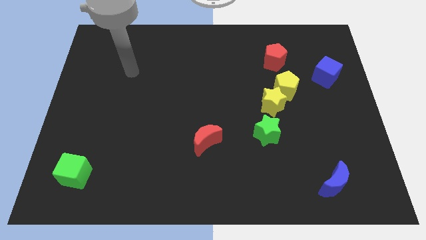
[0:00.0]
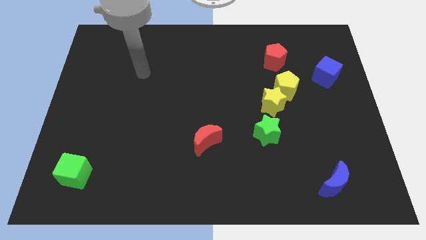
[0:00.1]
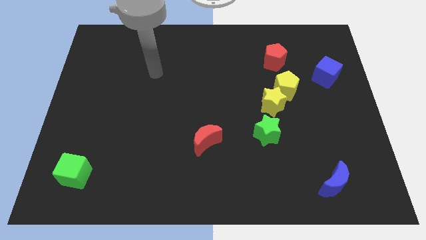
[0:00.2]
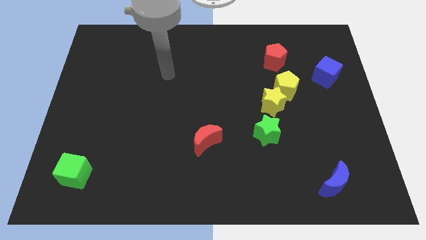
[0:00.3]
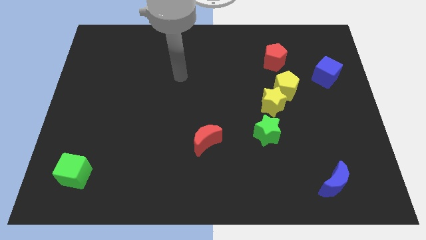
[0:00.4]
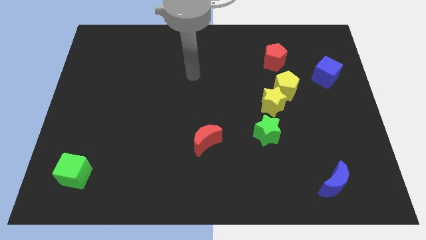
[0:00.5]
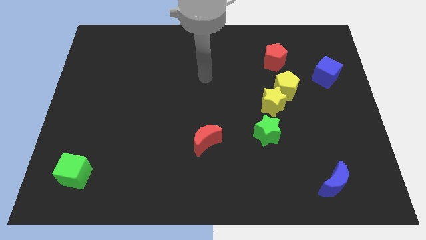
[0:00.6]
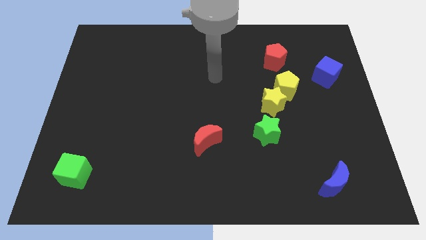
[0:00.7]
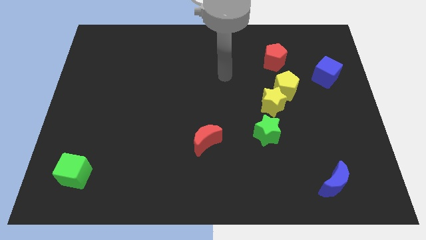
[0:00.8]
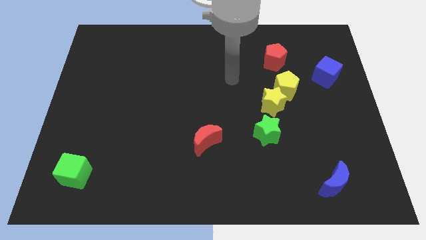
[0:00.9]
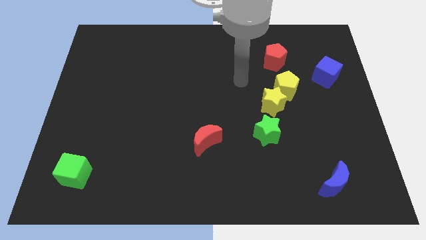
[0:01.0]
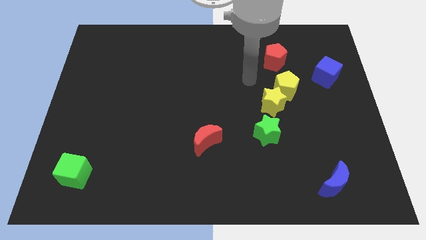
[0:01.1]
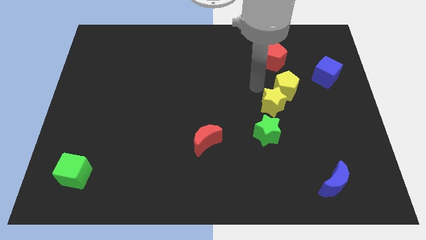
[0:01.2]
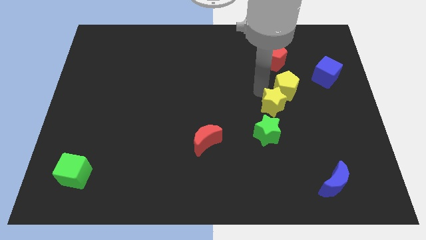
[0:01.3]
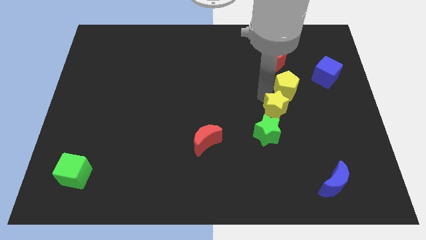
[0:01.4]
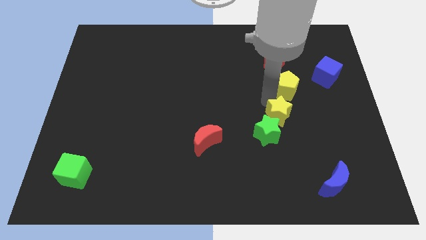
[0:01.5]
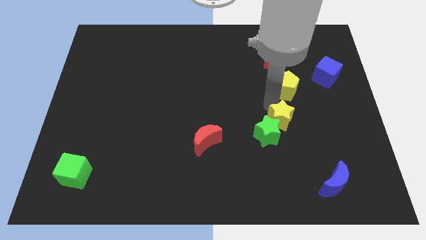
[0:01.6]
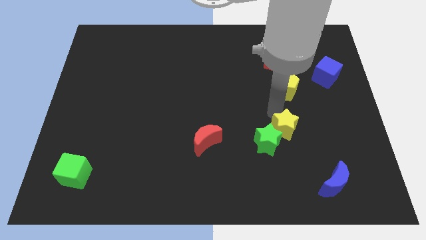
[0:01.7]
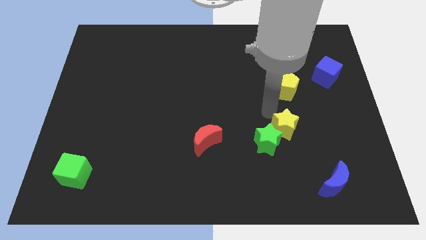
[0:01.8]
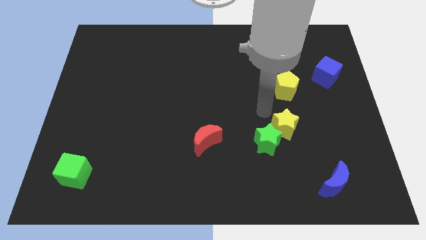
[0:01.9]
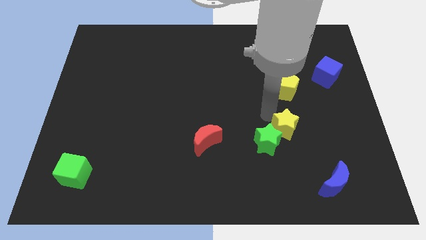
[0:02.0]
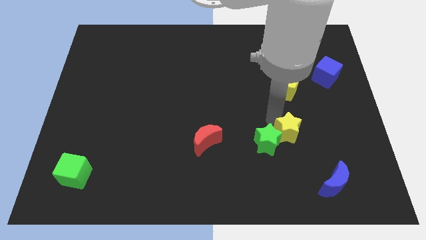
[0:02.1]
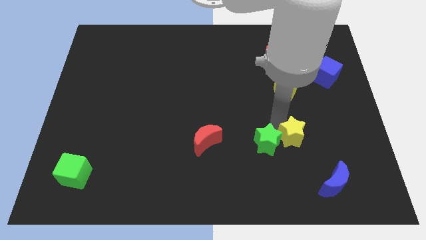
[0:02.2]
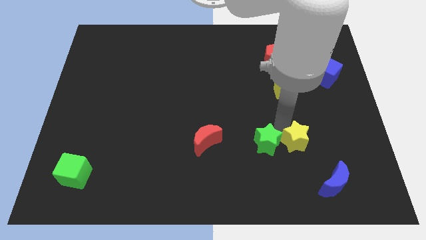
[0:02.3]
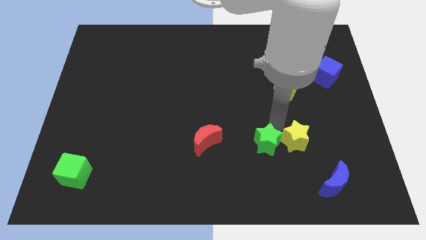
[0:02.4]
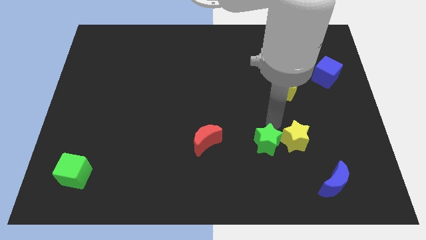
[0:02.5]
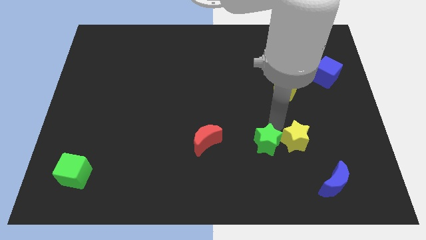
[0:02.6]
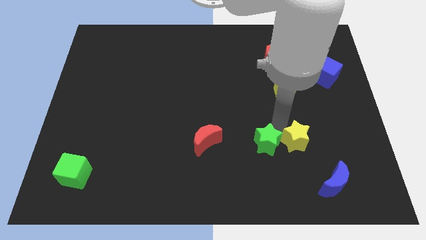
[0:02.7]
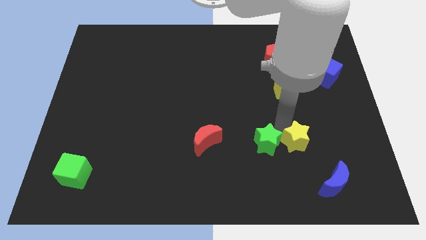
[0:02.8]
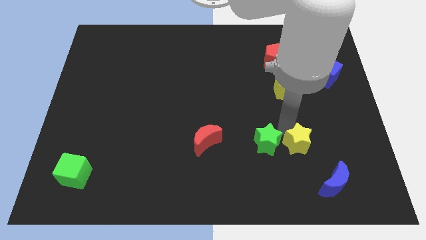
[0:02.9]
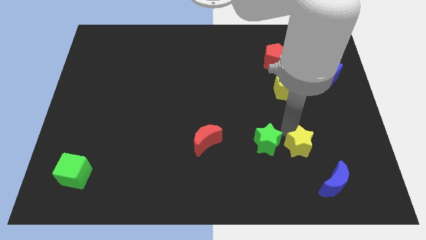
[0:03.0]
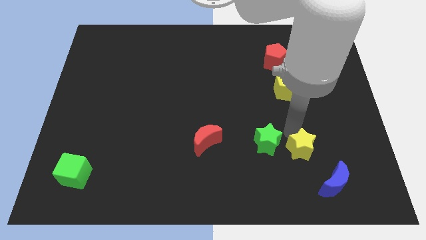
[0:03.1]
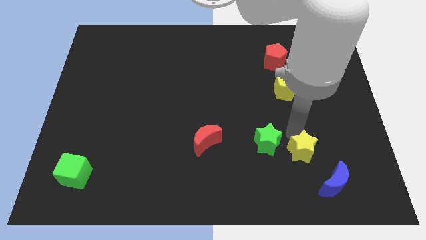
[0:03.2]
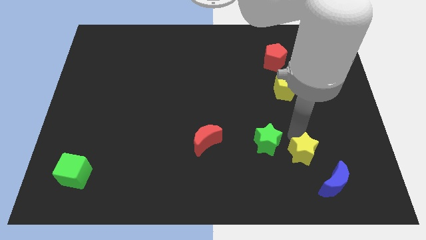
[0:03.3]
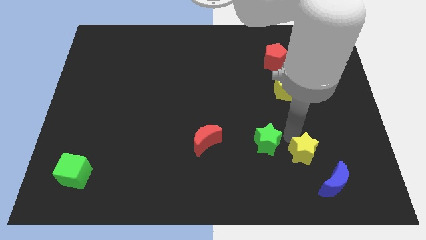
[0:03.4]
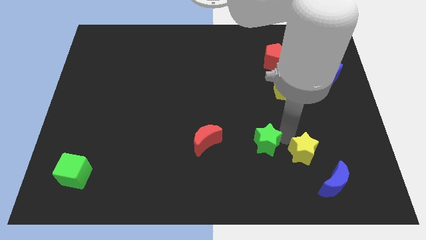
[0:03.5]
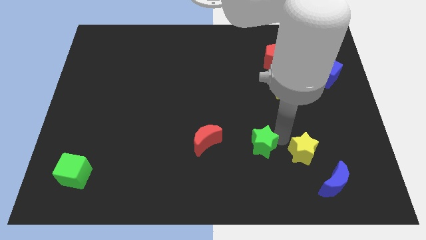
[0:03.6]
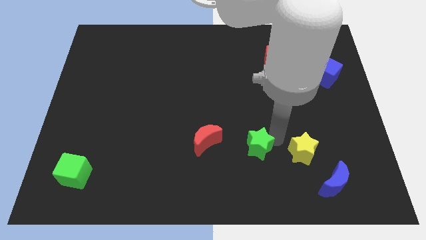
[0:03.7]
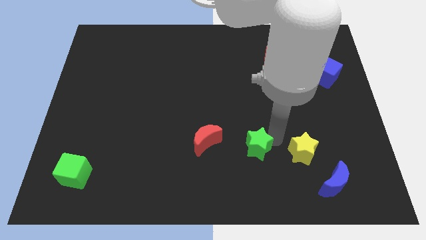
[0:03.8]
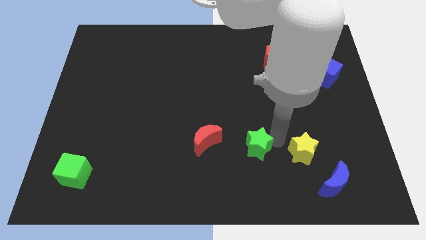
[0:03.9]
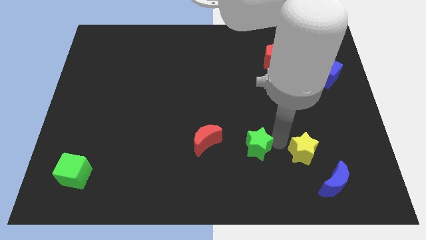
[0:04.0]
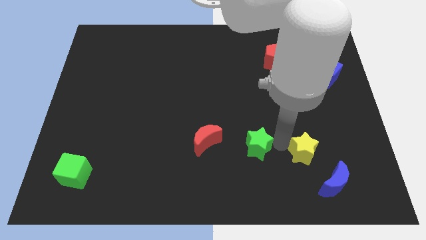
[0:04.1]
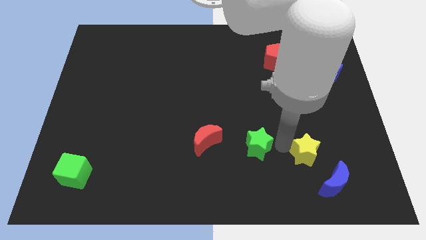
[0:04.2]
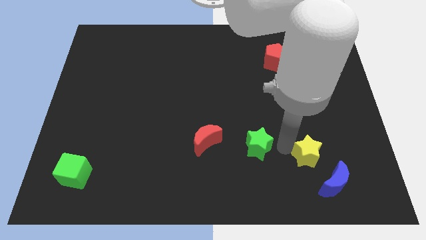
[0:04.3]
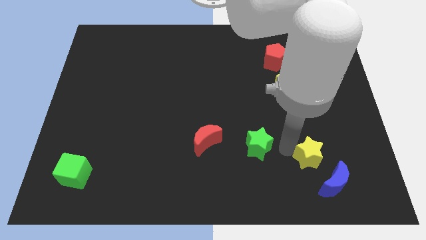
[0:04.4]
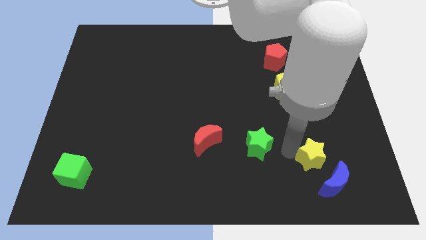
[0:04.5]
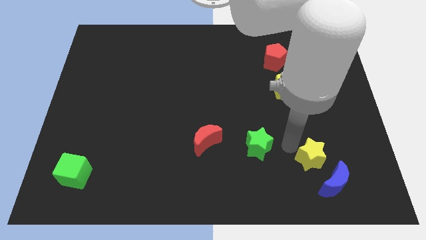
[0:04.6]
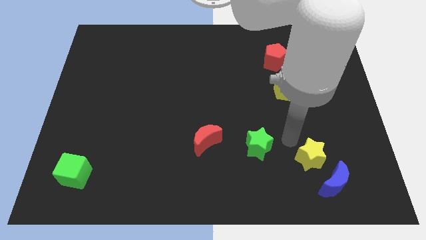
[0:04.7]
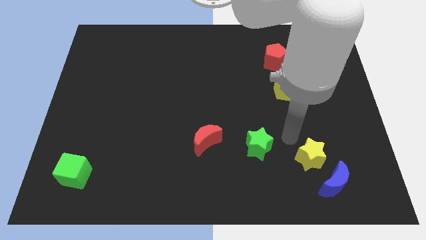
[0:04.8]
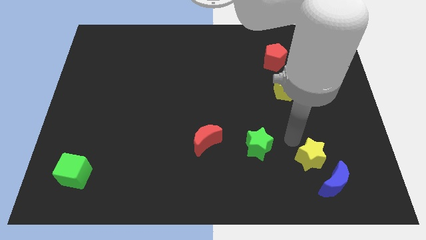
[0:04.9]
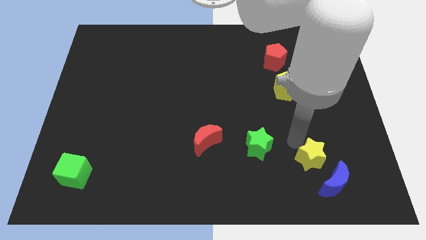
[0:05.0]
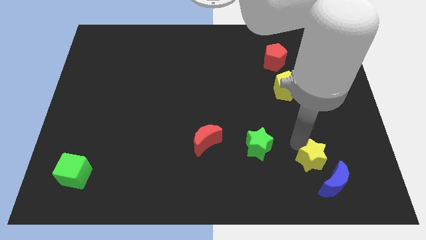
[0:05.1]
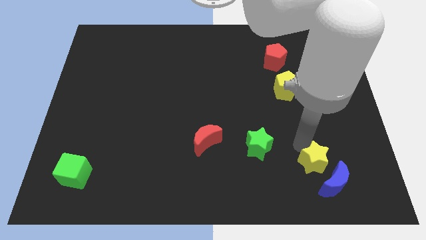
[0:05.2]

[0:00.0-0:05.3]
slide the yellow star close to the blue moon

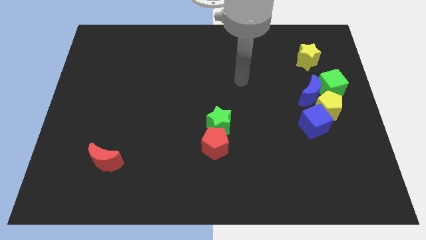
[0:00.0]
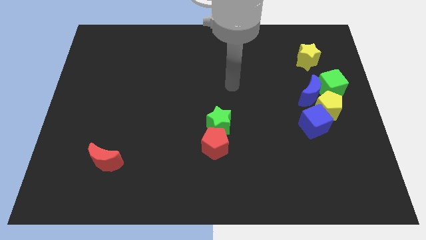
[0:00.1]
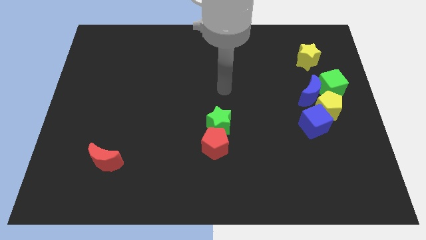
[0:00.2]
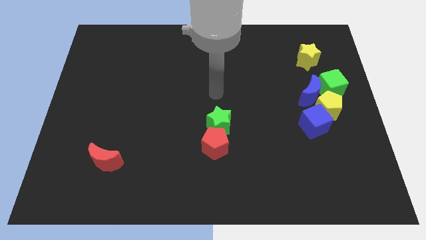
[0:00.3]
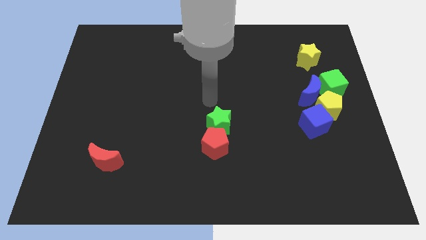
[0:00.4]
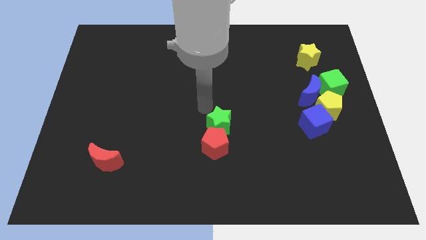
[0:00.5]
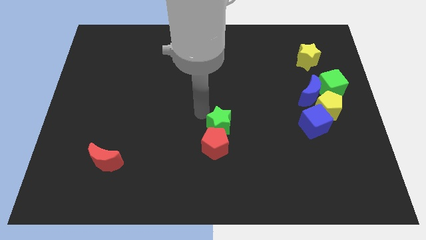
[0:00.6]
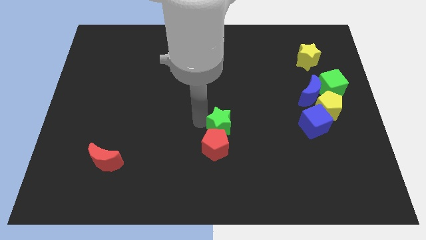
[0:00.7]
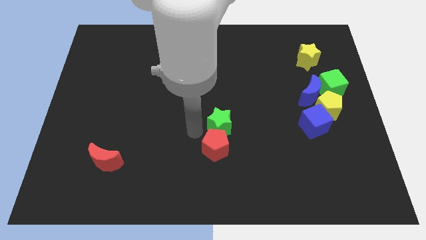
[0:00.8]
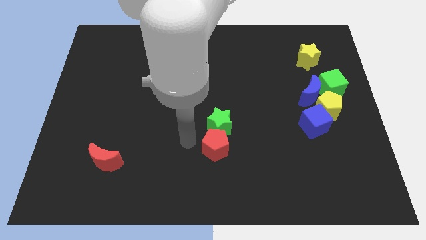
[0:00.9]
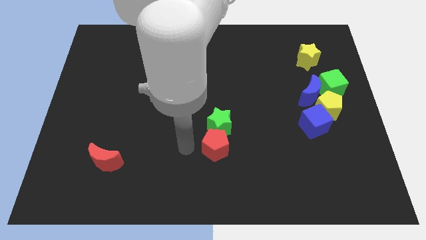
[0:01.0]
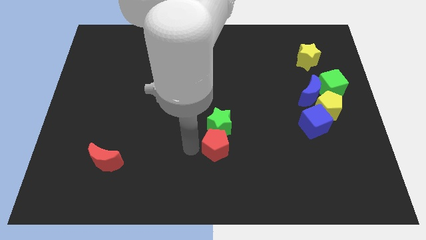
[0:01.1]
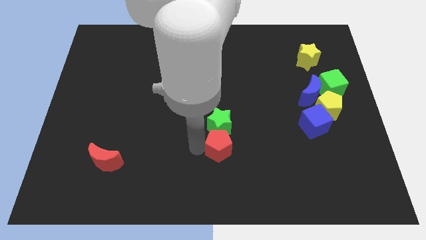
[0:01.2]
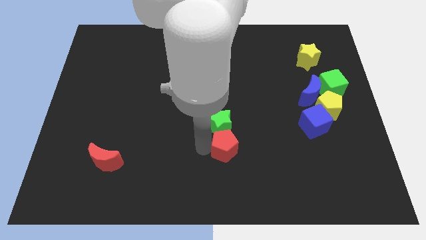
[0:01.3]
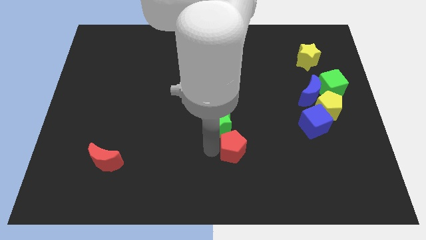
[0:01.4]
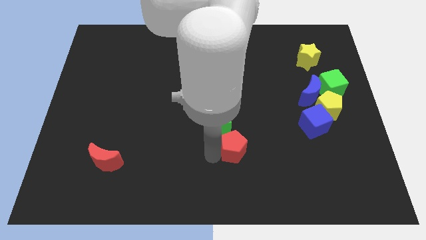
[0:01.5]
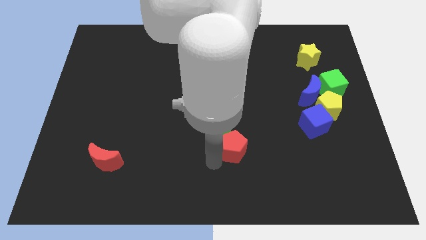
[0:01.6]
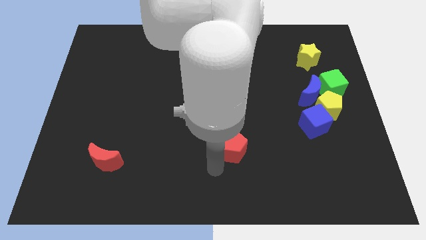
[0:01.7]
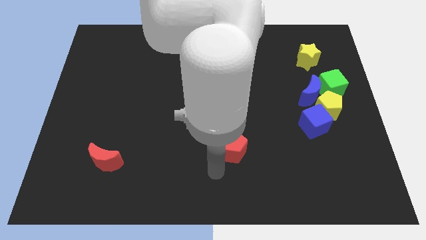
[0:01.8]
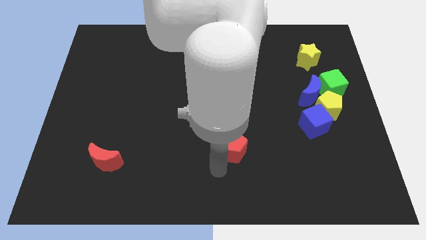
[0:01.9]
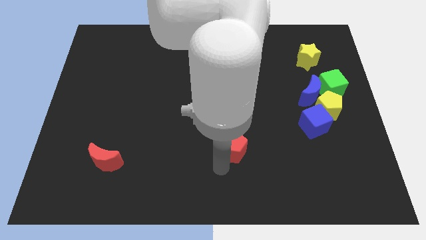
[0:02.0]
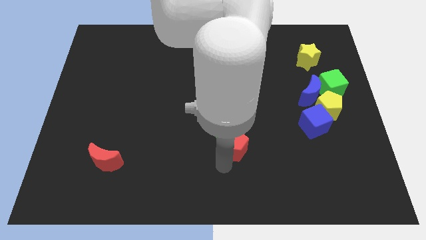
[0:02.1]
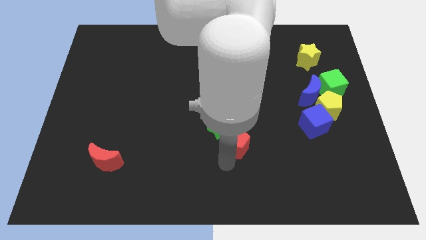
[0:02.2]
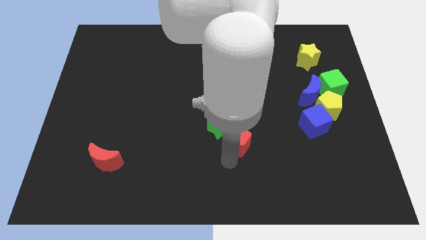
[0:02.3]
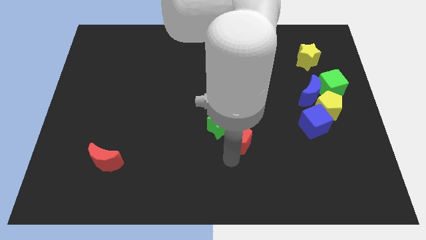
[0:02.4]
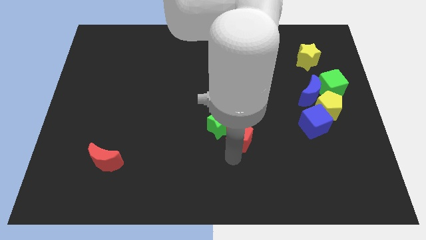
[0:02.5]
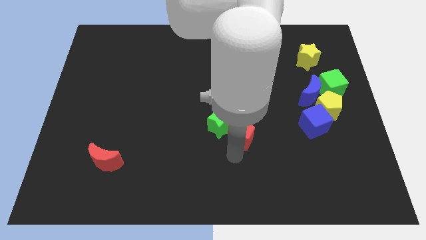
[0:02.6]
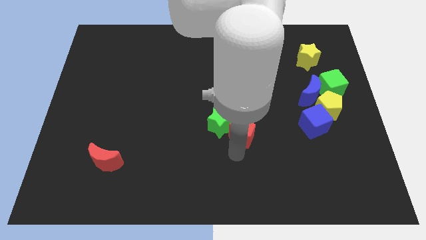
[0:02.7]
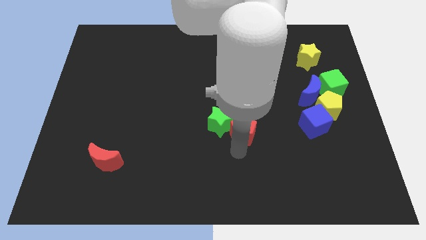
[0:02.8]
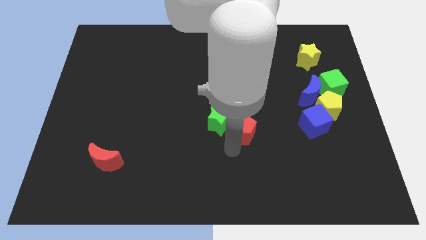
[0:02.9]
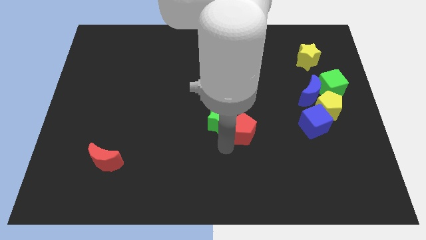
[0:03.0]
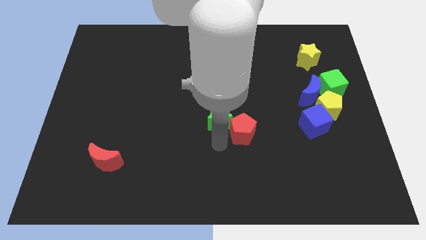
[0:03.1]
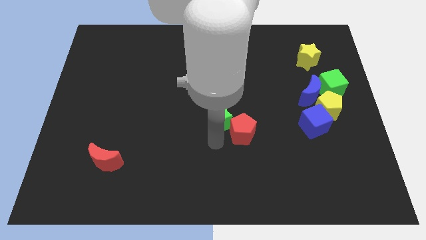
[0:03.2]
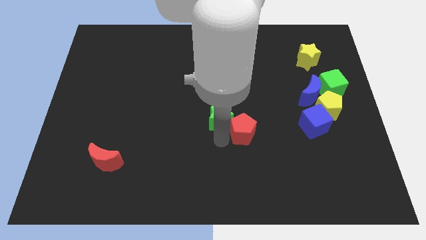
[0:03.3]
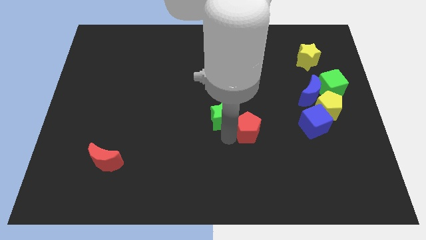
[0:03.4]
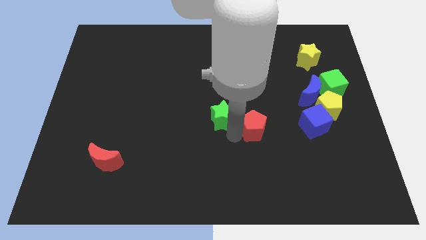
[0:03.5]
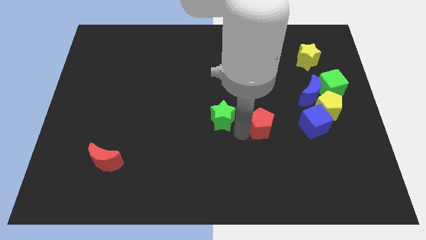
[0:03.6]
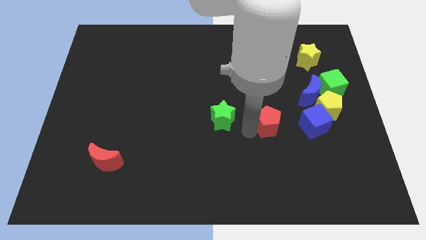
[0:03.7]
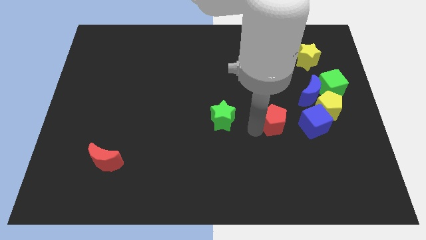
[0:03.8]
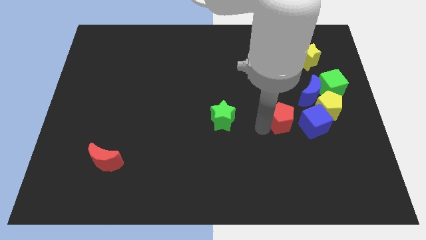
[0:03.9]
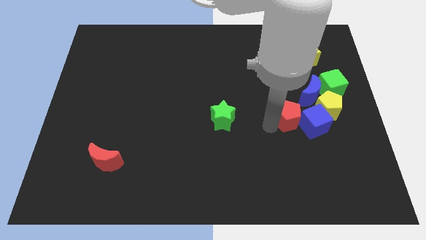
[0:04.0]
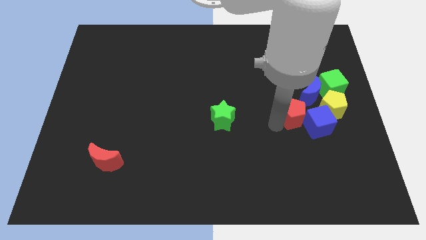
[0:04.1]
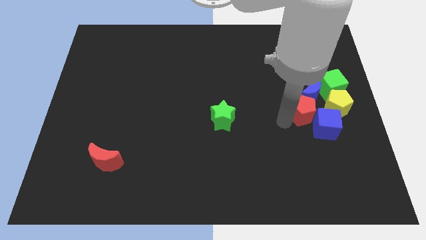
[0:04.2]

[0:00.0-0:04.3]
put the red pentagon close to the blue moon
